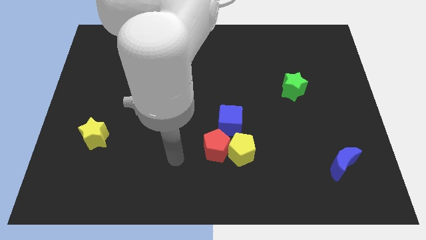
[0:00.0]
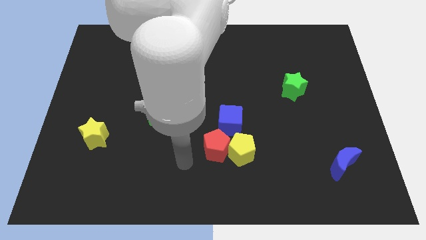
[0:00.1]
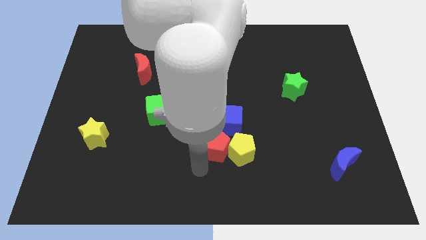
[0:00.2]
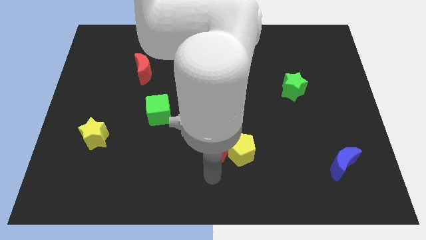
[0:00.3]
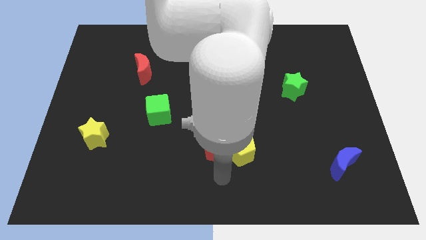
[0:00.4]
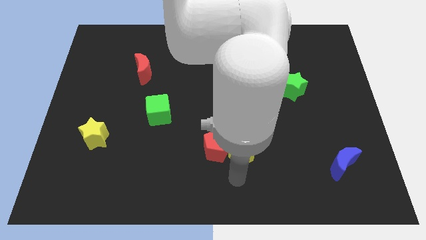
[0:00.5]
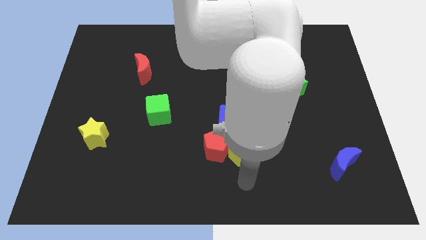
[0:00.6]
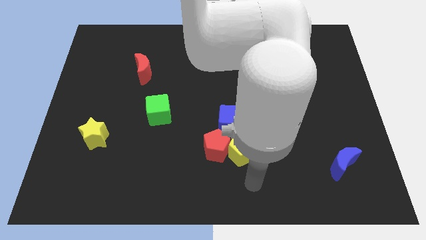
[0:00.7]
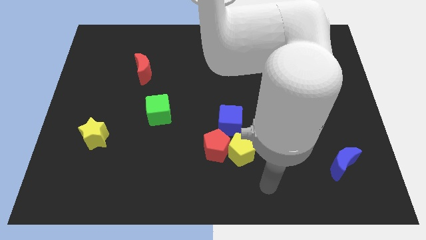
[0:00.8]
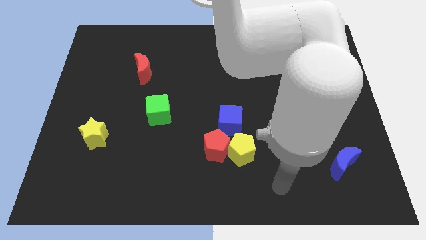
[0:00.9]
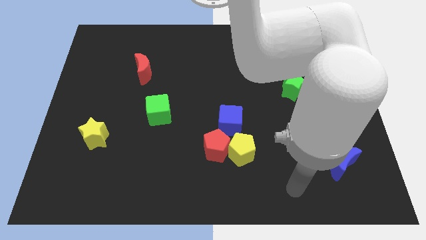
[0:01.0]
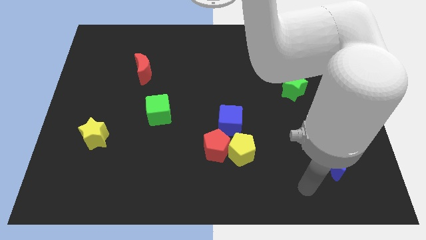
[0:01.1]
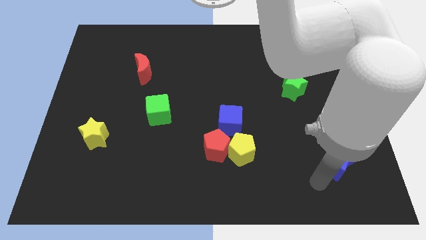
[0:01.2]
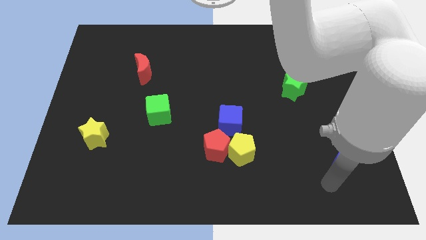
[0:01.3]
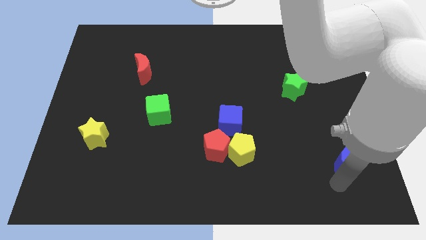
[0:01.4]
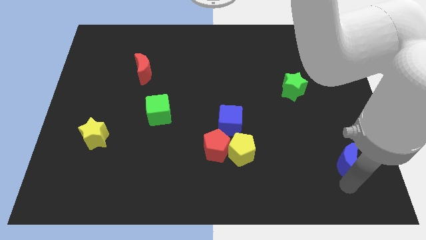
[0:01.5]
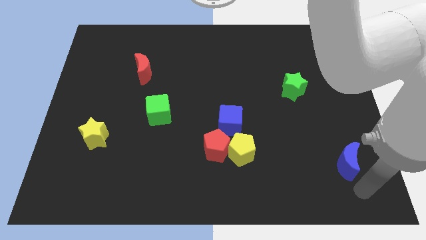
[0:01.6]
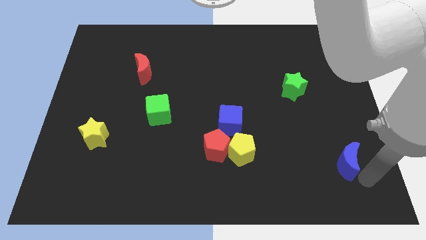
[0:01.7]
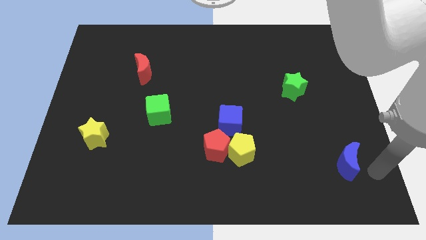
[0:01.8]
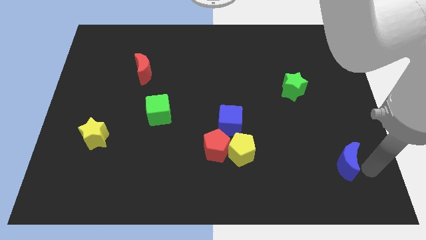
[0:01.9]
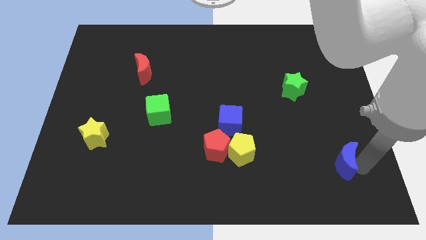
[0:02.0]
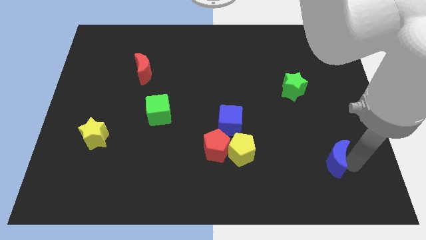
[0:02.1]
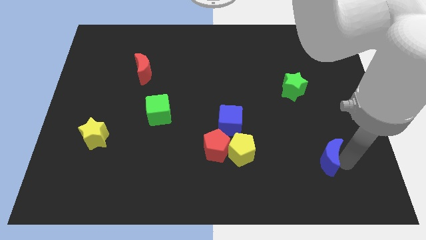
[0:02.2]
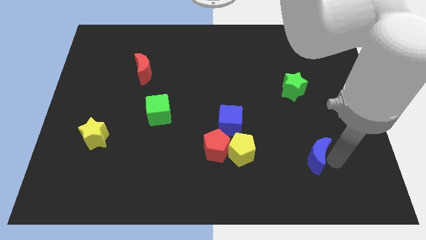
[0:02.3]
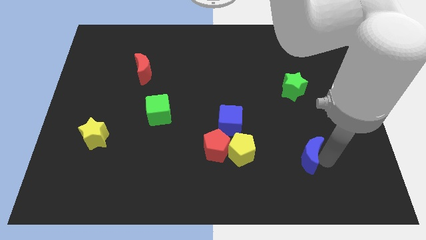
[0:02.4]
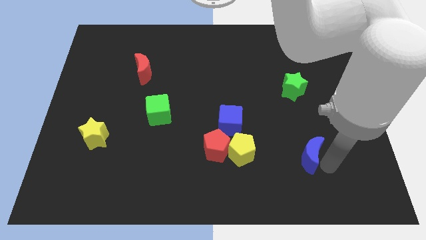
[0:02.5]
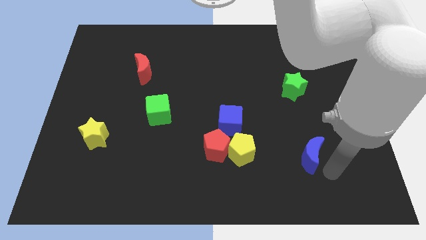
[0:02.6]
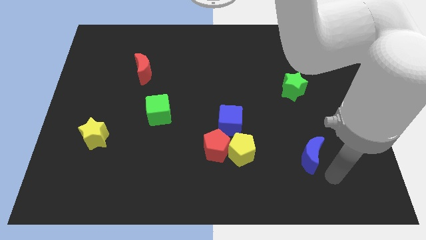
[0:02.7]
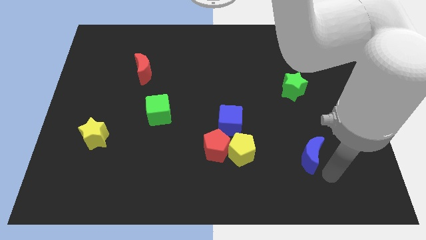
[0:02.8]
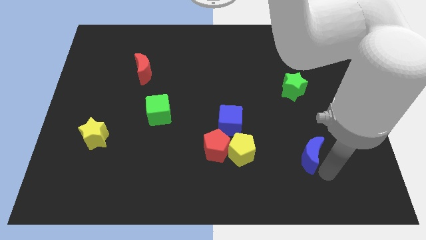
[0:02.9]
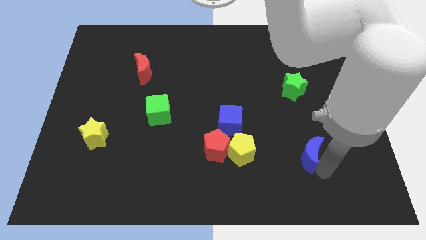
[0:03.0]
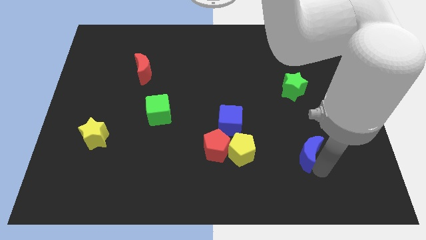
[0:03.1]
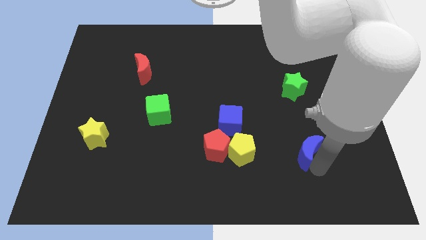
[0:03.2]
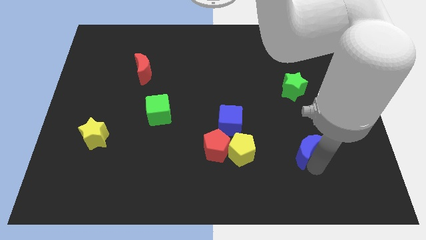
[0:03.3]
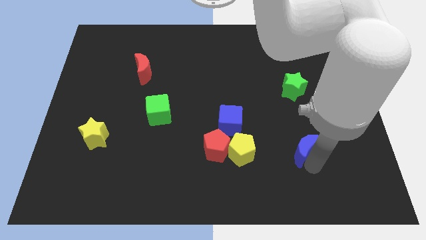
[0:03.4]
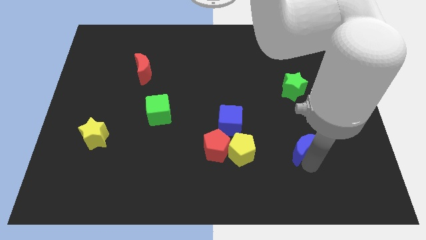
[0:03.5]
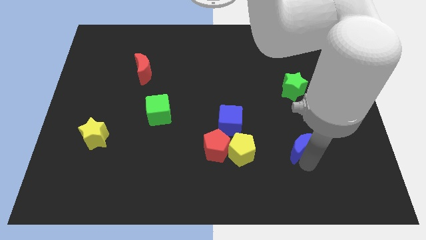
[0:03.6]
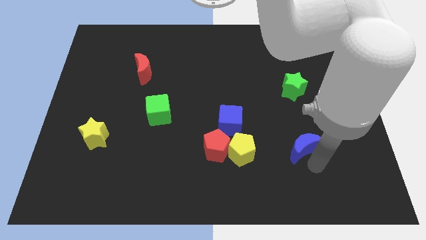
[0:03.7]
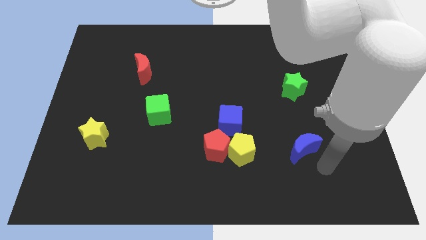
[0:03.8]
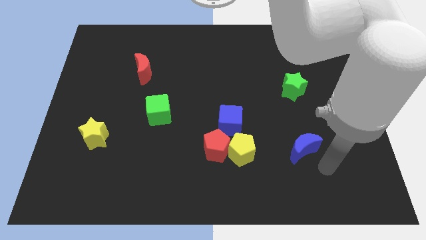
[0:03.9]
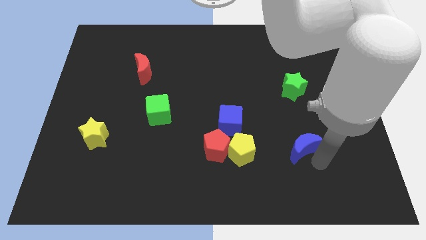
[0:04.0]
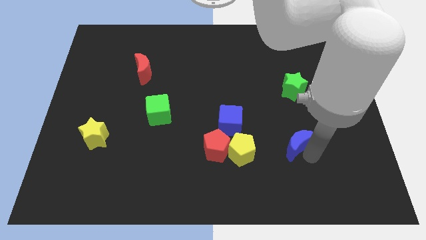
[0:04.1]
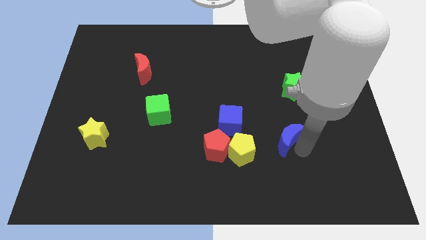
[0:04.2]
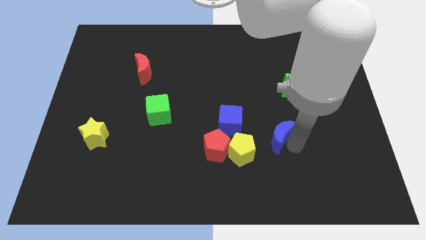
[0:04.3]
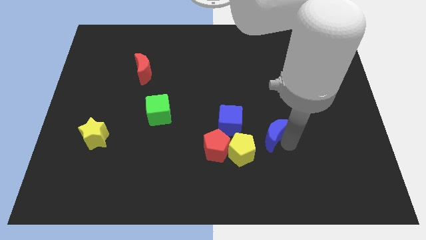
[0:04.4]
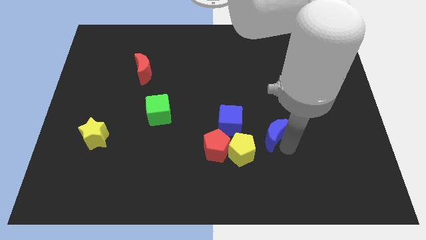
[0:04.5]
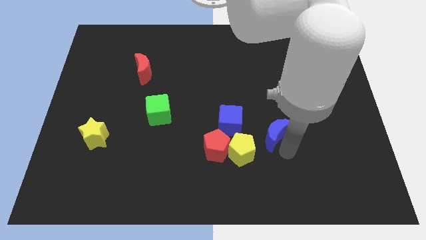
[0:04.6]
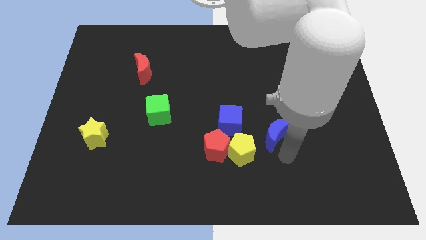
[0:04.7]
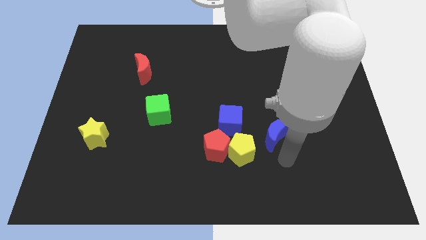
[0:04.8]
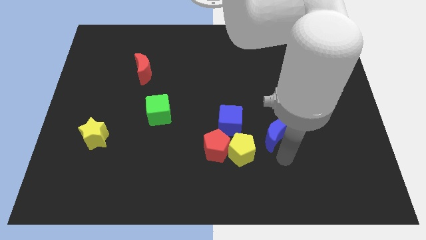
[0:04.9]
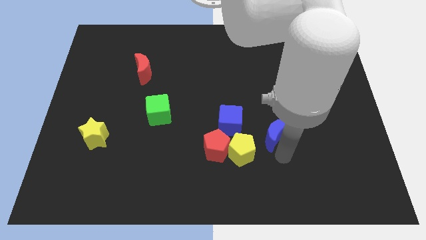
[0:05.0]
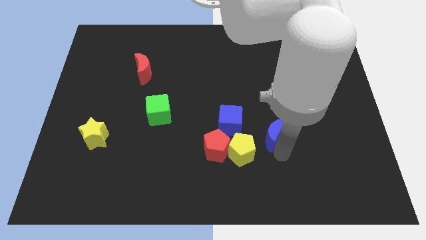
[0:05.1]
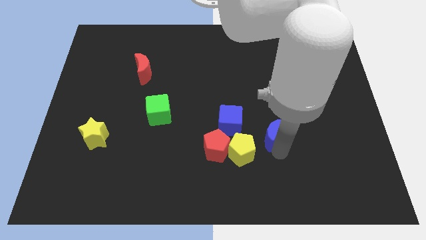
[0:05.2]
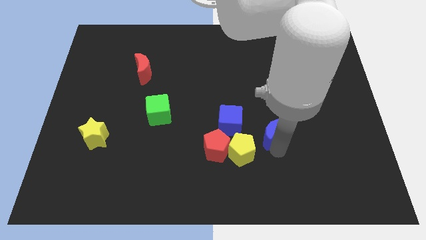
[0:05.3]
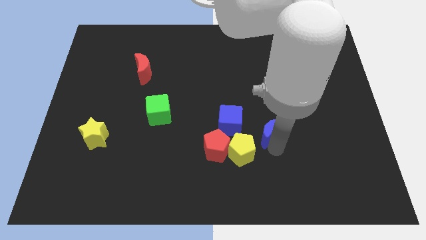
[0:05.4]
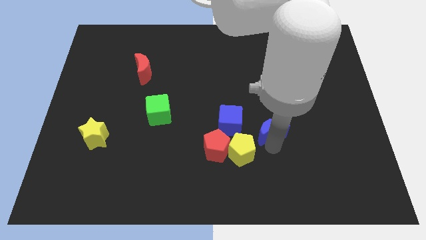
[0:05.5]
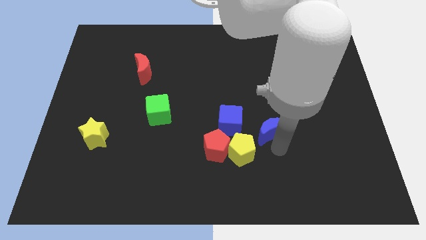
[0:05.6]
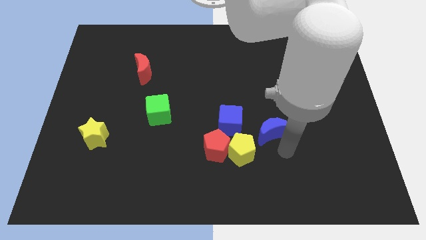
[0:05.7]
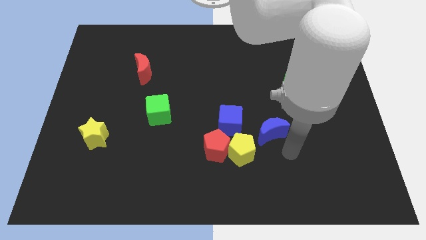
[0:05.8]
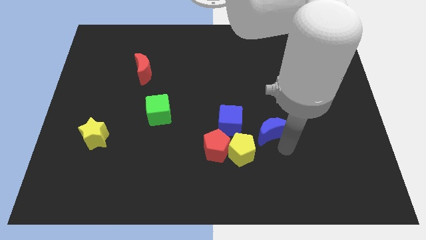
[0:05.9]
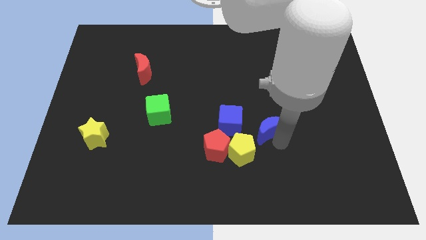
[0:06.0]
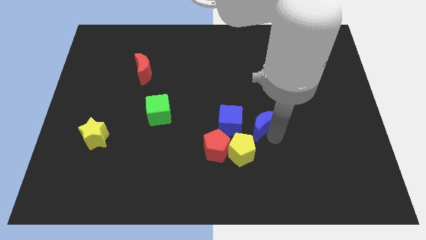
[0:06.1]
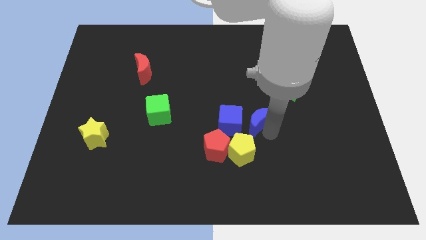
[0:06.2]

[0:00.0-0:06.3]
move the blue moon to the middle

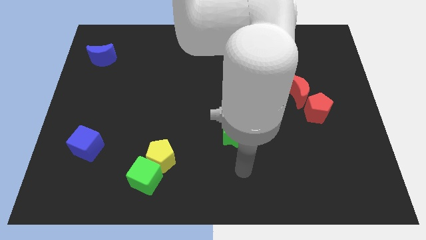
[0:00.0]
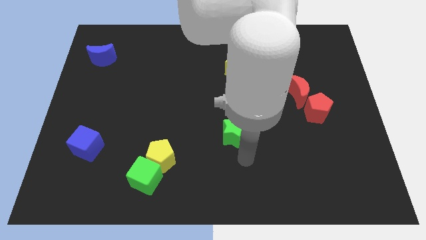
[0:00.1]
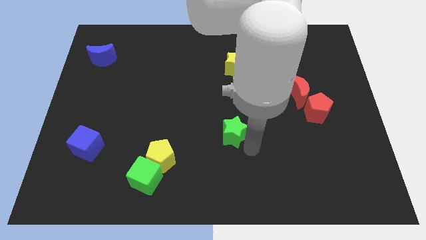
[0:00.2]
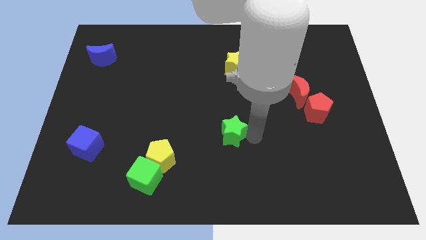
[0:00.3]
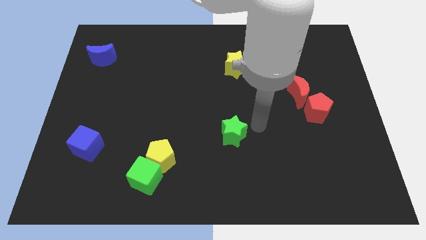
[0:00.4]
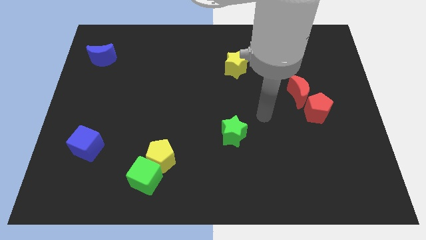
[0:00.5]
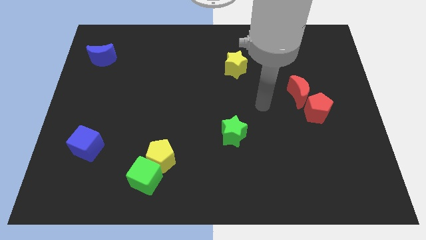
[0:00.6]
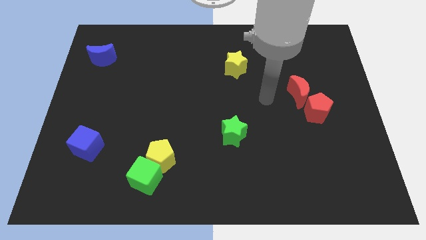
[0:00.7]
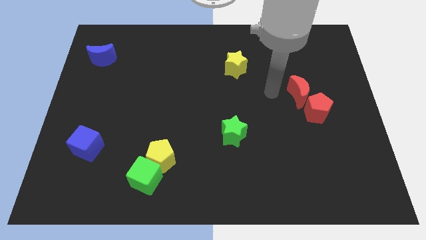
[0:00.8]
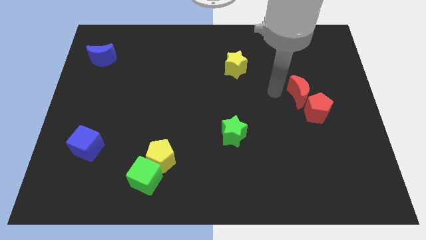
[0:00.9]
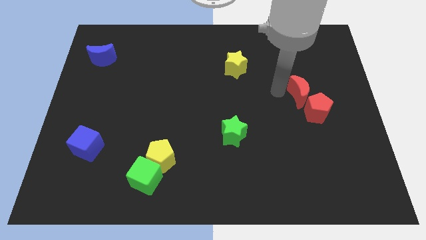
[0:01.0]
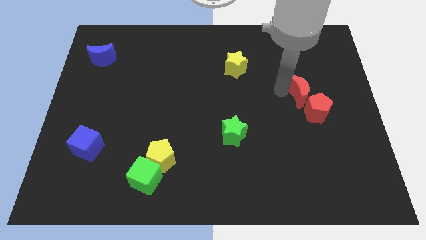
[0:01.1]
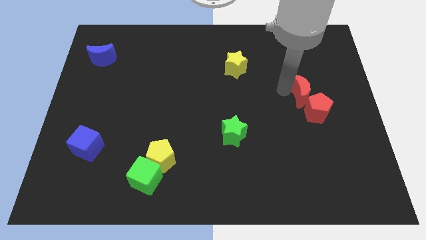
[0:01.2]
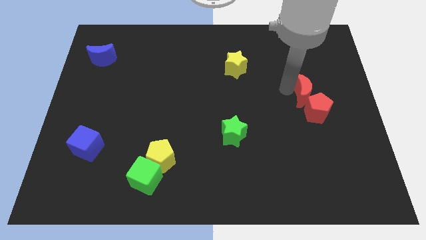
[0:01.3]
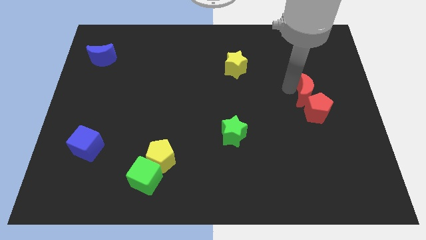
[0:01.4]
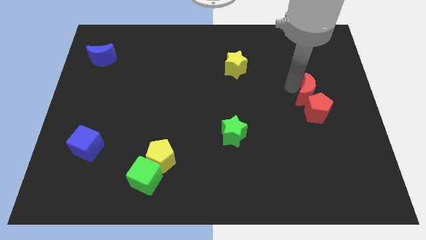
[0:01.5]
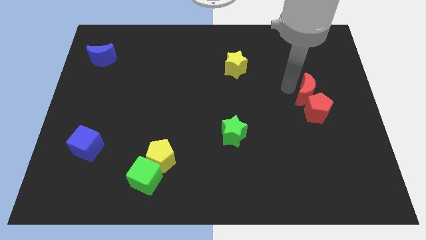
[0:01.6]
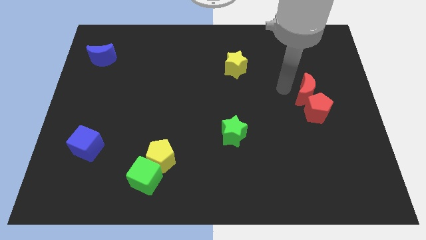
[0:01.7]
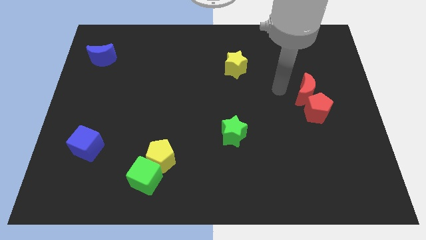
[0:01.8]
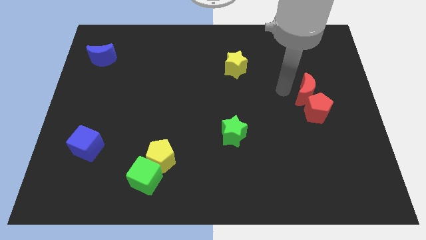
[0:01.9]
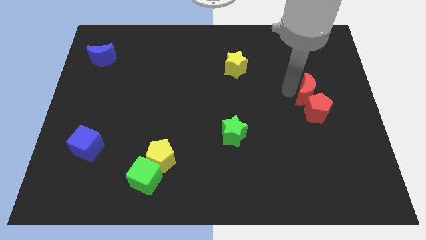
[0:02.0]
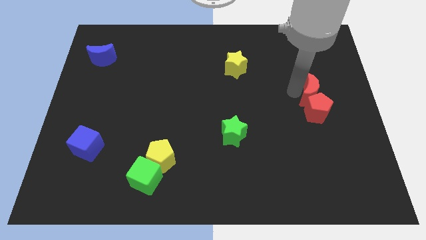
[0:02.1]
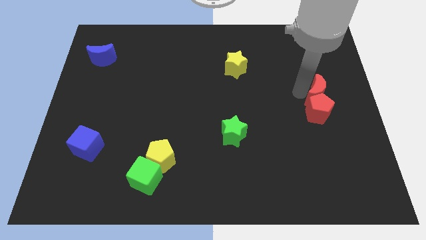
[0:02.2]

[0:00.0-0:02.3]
put the red moon to the right side of the board
